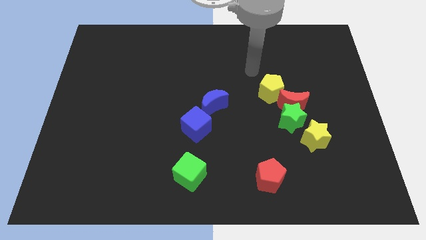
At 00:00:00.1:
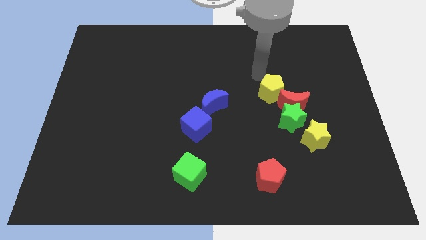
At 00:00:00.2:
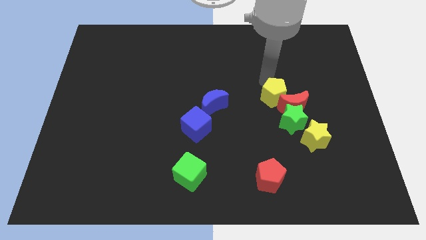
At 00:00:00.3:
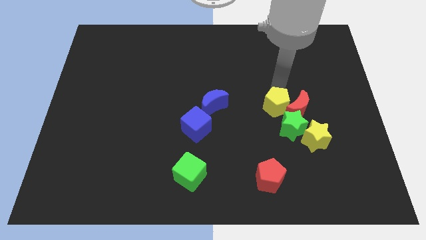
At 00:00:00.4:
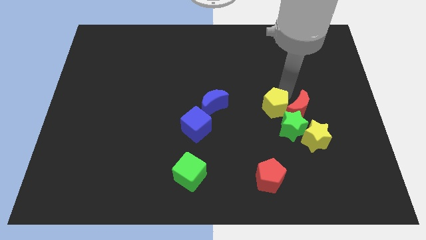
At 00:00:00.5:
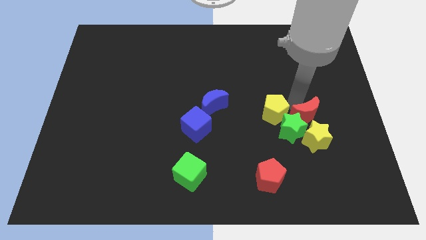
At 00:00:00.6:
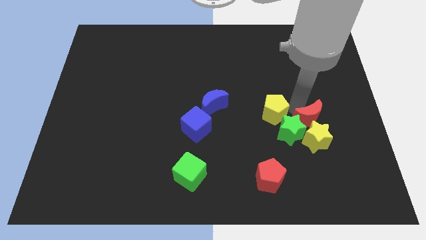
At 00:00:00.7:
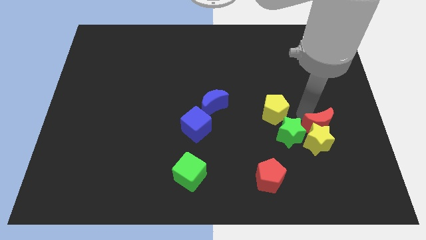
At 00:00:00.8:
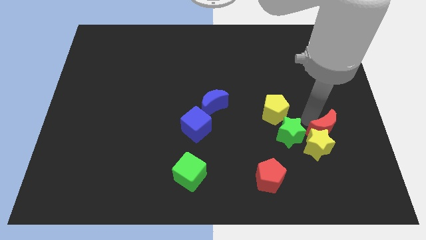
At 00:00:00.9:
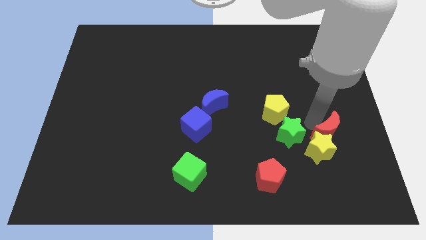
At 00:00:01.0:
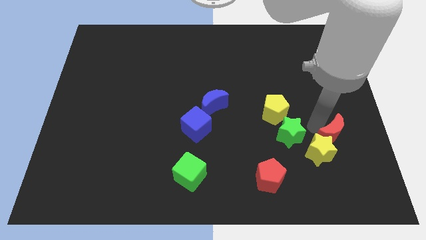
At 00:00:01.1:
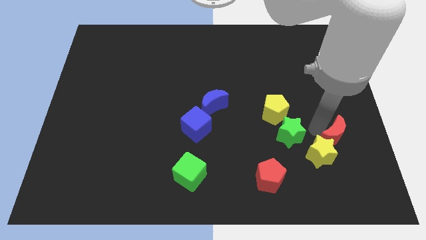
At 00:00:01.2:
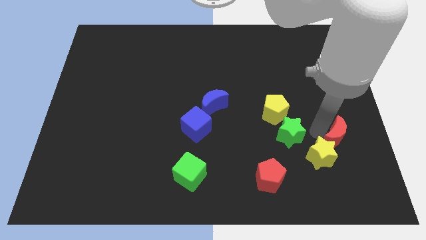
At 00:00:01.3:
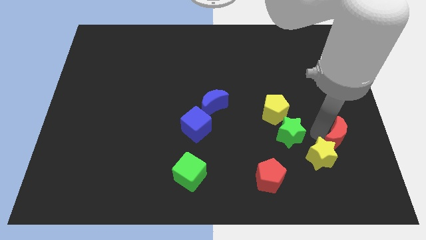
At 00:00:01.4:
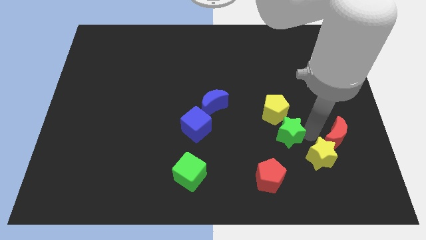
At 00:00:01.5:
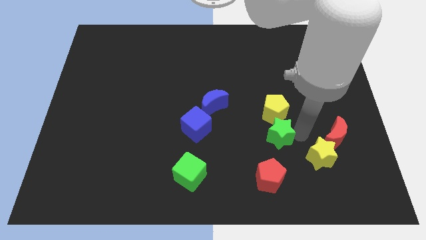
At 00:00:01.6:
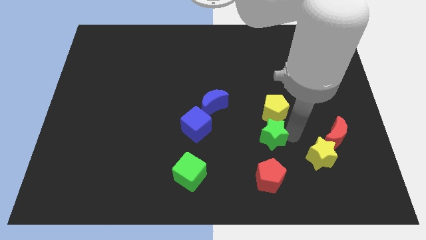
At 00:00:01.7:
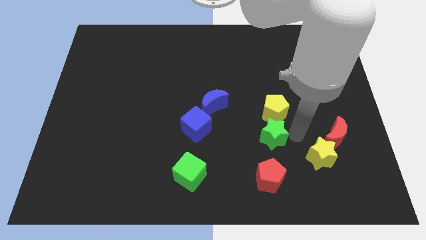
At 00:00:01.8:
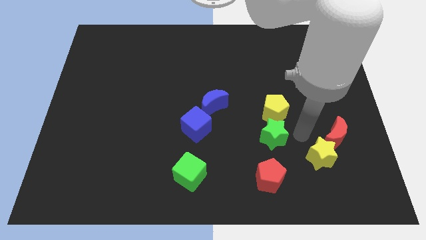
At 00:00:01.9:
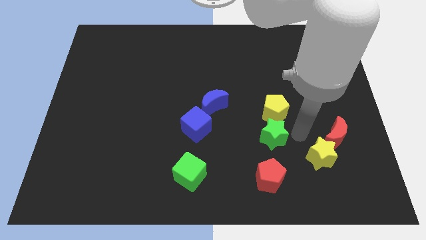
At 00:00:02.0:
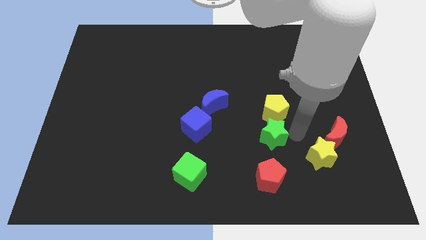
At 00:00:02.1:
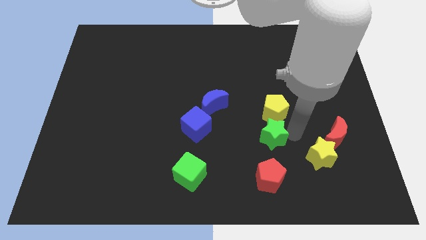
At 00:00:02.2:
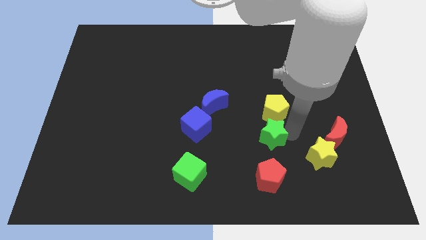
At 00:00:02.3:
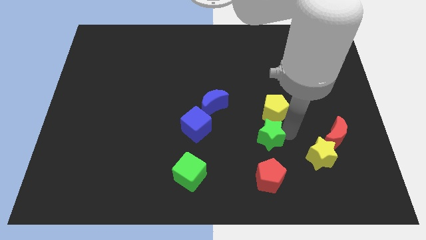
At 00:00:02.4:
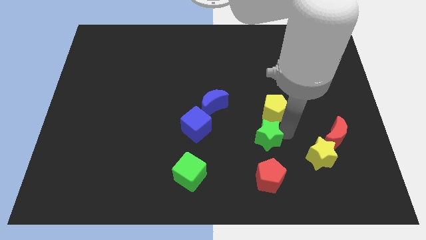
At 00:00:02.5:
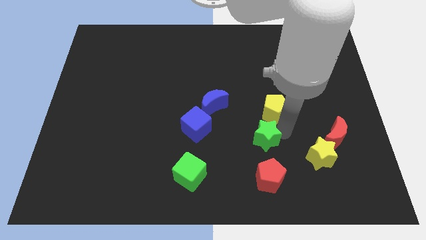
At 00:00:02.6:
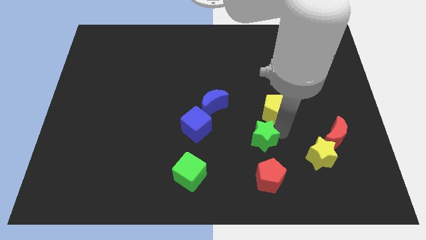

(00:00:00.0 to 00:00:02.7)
move the green star away from the red moon, yellow star, and yellow pentagon

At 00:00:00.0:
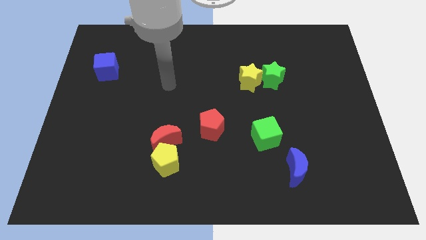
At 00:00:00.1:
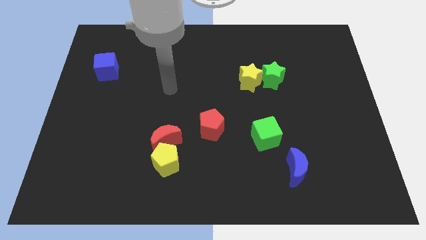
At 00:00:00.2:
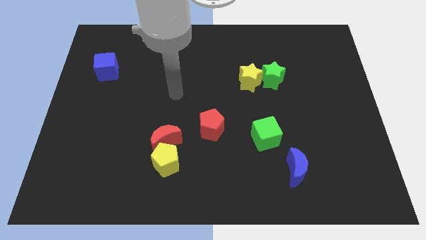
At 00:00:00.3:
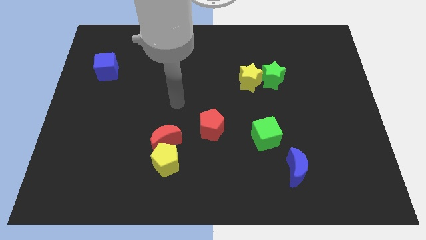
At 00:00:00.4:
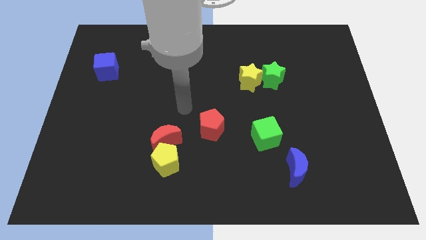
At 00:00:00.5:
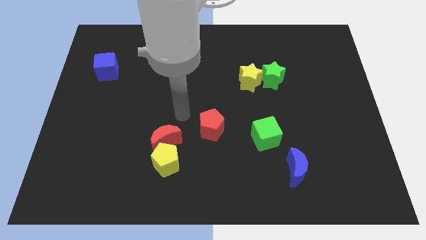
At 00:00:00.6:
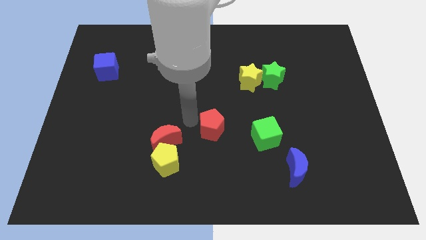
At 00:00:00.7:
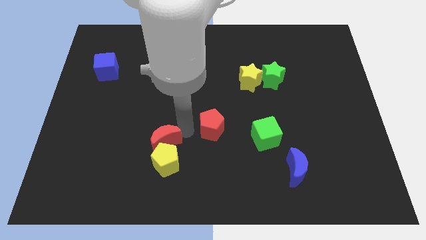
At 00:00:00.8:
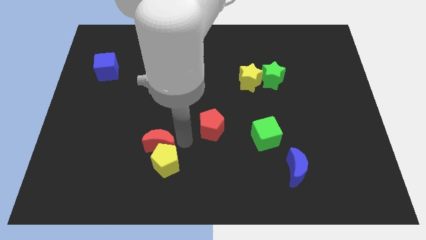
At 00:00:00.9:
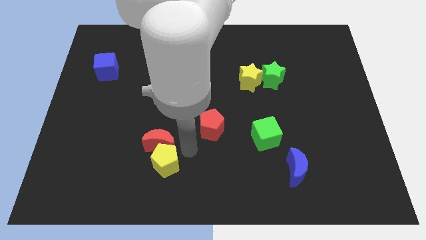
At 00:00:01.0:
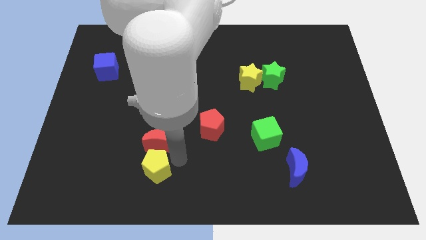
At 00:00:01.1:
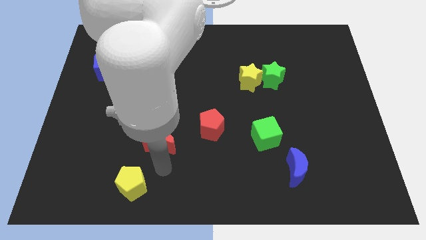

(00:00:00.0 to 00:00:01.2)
separate the red moon from the yellow pentagon

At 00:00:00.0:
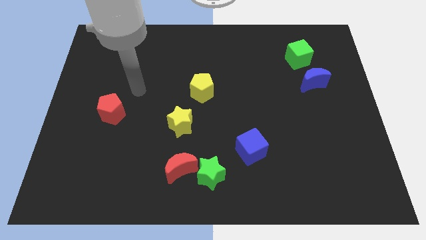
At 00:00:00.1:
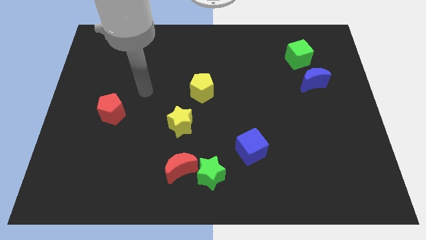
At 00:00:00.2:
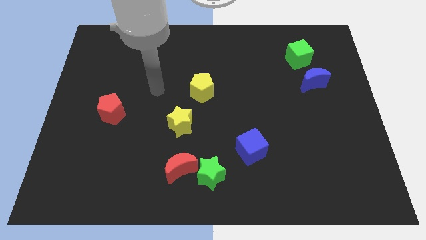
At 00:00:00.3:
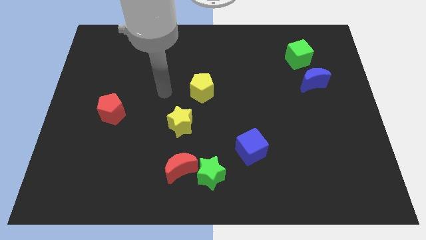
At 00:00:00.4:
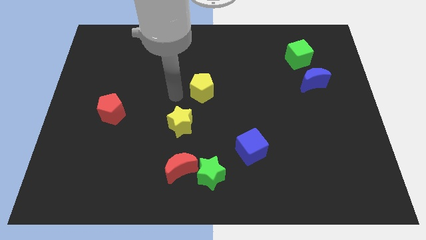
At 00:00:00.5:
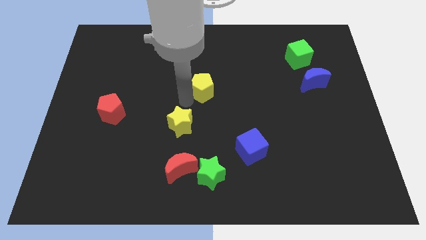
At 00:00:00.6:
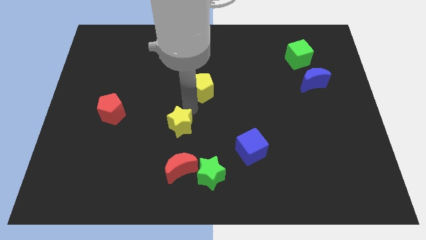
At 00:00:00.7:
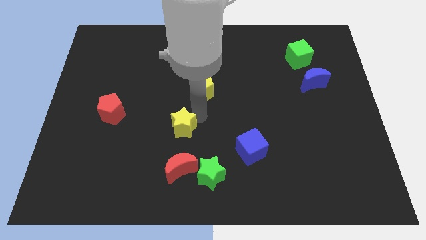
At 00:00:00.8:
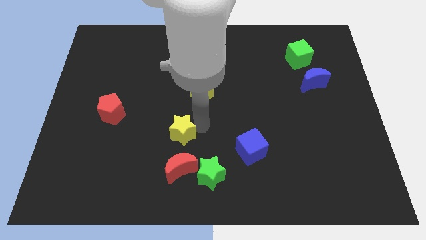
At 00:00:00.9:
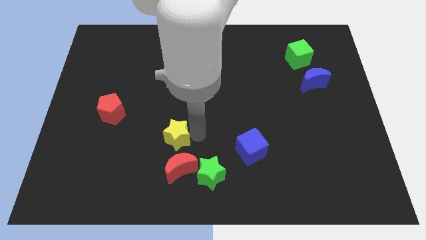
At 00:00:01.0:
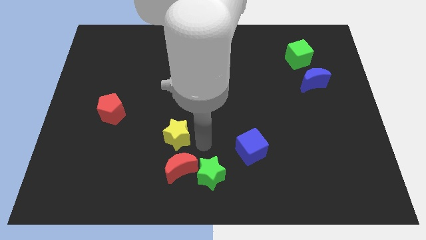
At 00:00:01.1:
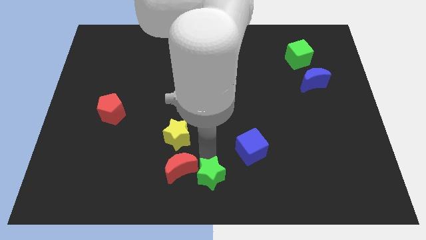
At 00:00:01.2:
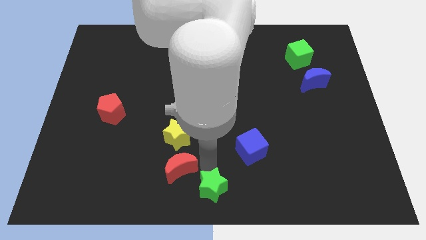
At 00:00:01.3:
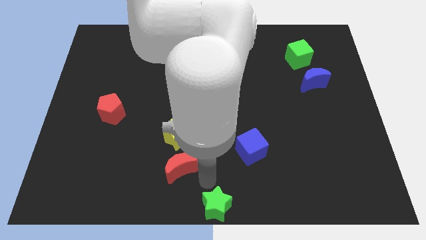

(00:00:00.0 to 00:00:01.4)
pull the red moon apart from the green star

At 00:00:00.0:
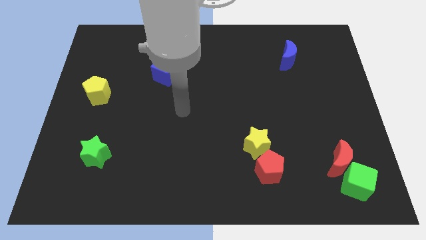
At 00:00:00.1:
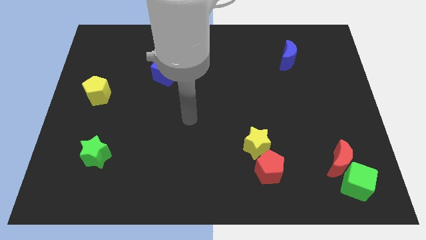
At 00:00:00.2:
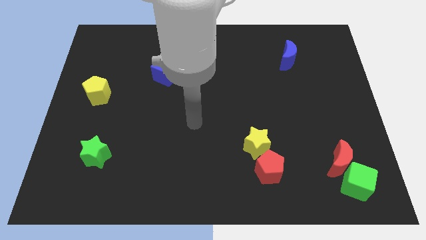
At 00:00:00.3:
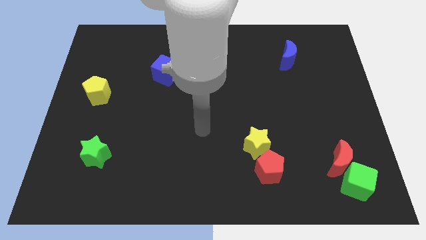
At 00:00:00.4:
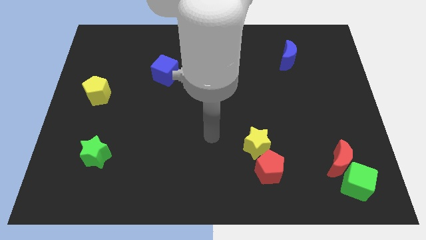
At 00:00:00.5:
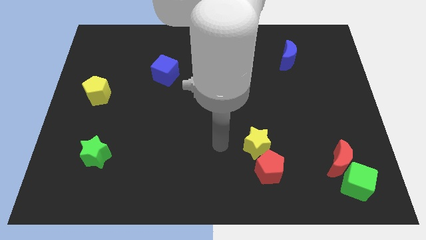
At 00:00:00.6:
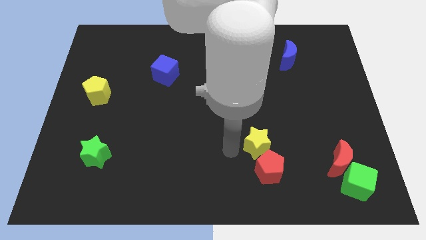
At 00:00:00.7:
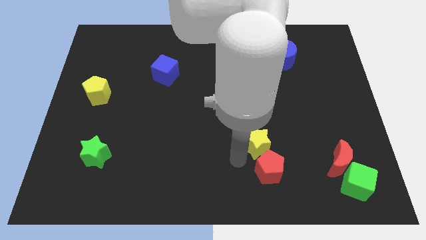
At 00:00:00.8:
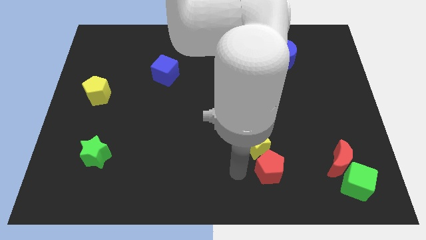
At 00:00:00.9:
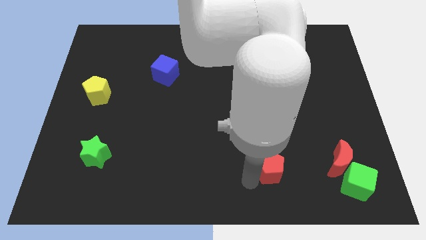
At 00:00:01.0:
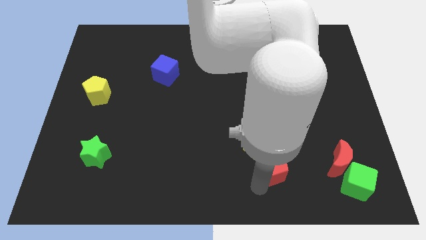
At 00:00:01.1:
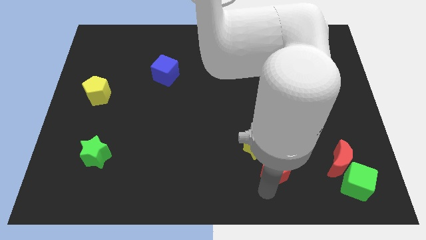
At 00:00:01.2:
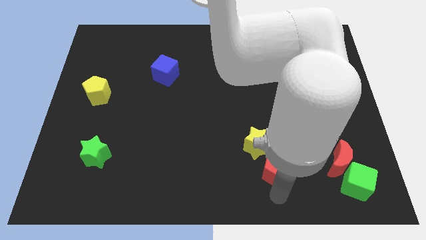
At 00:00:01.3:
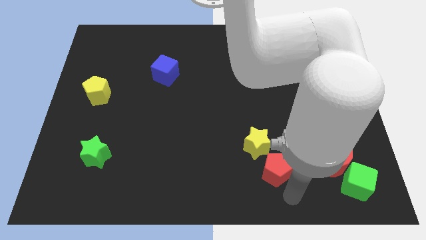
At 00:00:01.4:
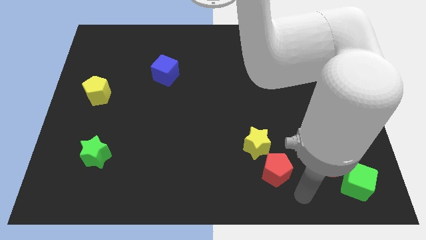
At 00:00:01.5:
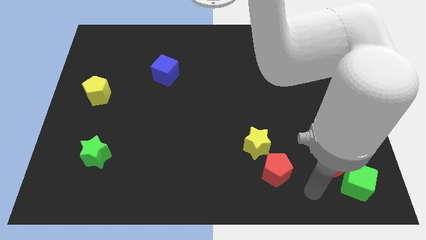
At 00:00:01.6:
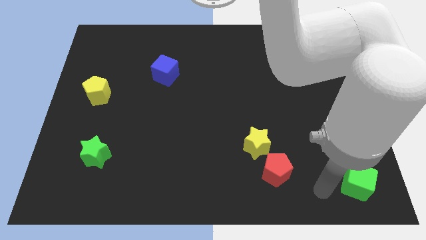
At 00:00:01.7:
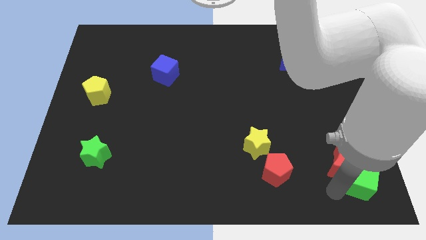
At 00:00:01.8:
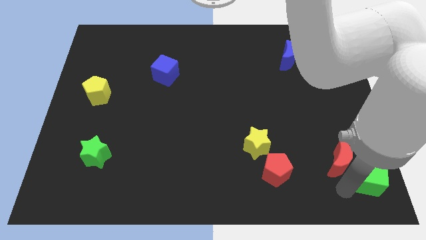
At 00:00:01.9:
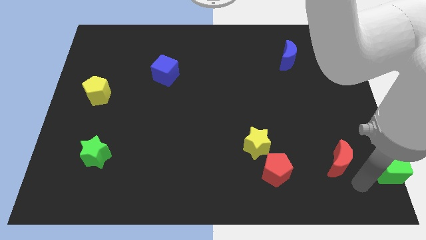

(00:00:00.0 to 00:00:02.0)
move the red moon away from the green cube

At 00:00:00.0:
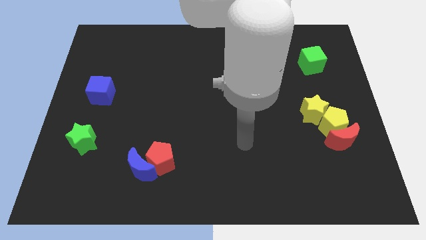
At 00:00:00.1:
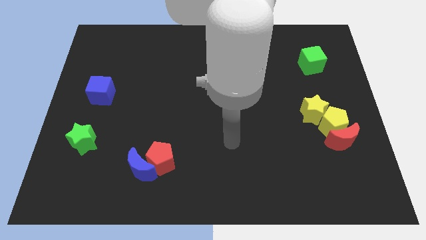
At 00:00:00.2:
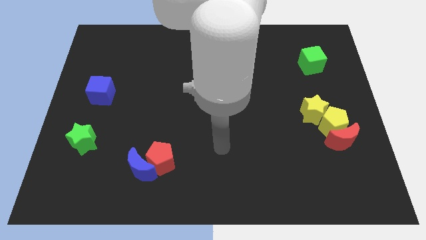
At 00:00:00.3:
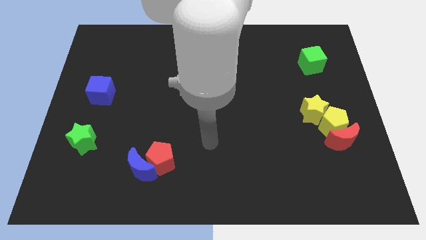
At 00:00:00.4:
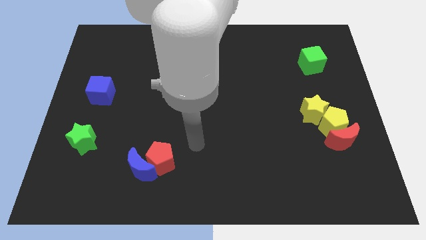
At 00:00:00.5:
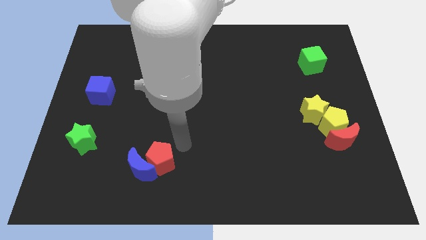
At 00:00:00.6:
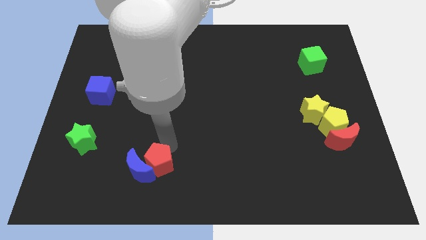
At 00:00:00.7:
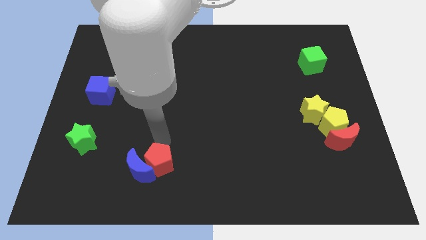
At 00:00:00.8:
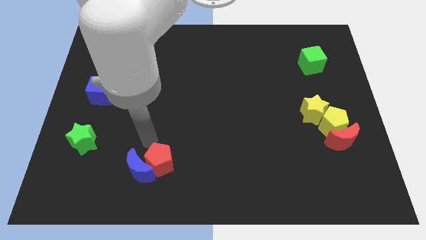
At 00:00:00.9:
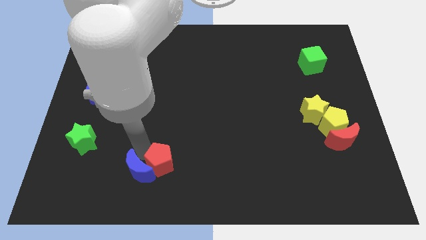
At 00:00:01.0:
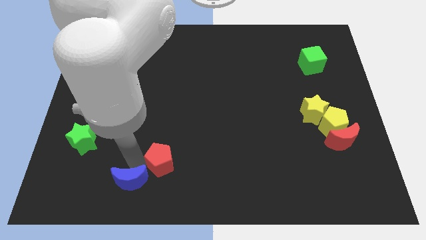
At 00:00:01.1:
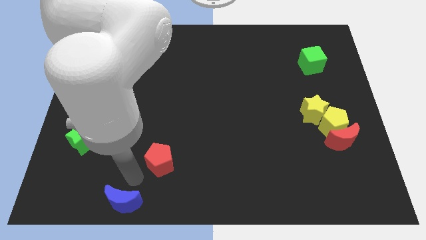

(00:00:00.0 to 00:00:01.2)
separate the red pentagon from the blue moon

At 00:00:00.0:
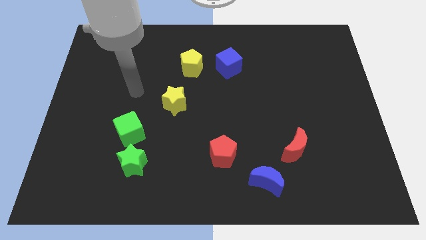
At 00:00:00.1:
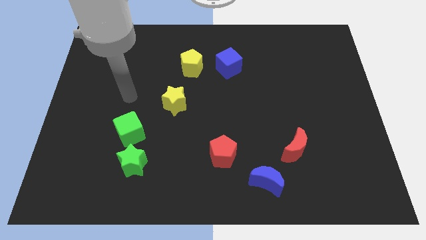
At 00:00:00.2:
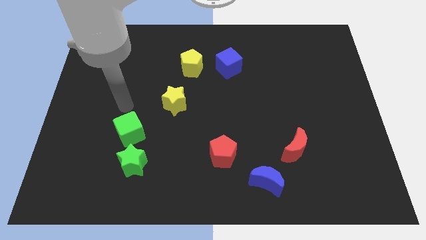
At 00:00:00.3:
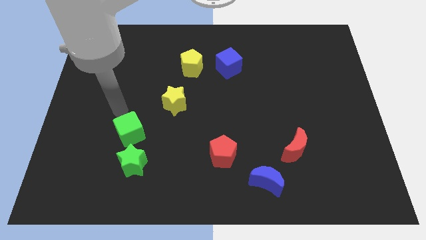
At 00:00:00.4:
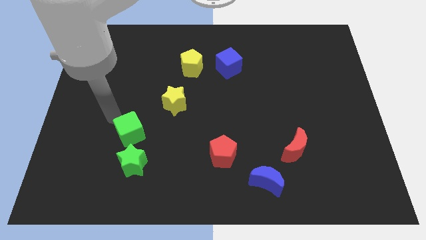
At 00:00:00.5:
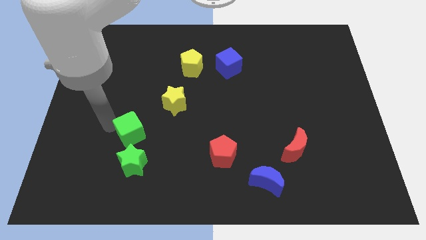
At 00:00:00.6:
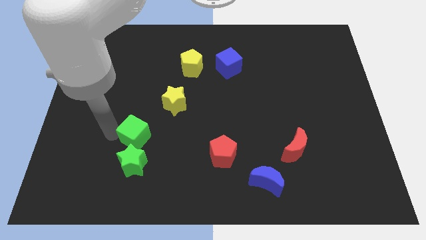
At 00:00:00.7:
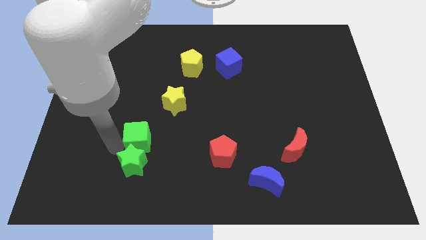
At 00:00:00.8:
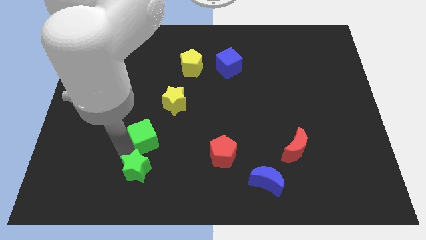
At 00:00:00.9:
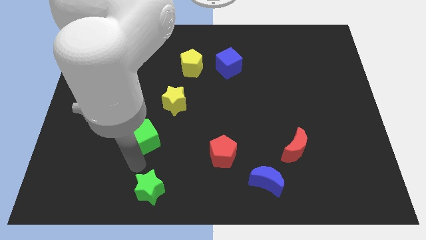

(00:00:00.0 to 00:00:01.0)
separate the green cube from the green star
